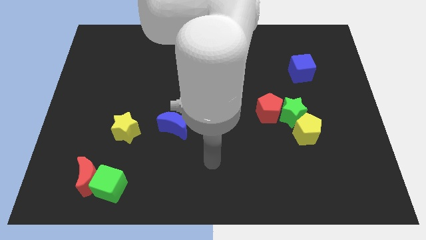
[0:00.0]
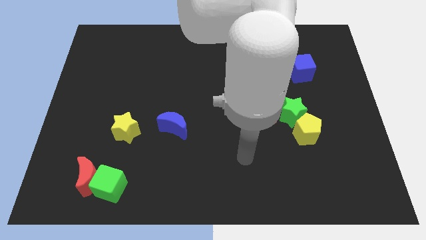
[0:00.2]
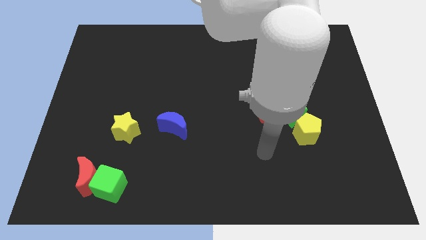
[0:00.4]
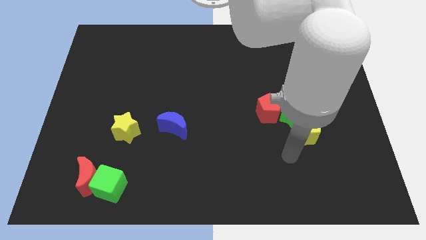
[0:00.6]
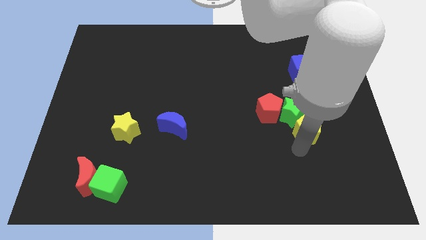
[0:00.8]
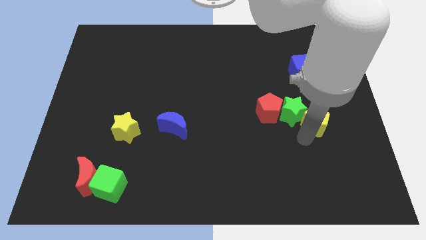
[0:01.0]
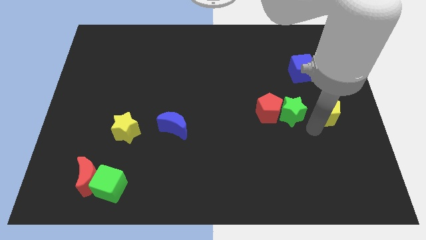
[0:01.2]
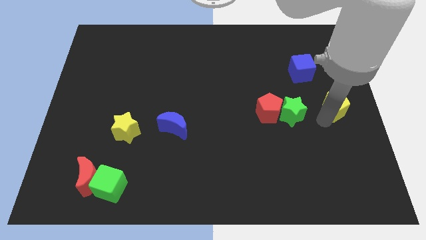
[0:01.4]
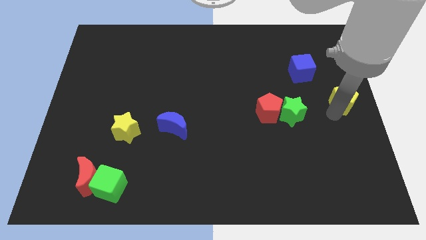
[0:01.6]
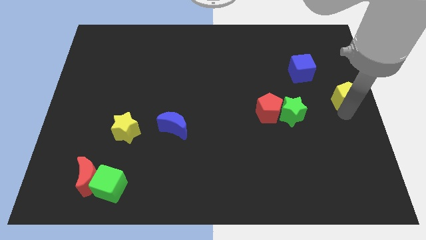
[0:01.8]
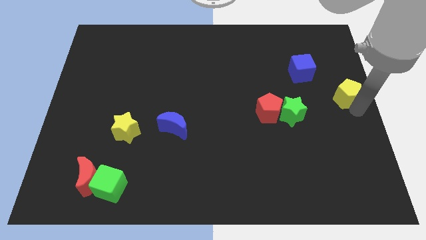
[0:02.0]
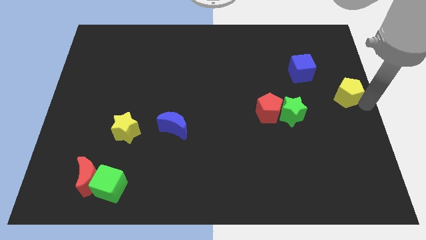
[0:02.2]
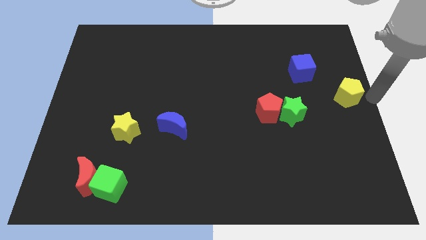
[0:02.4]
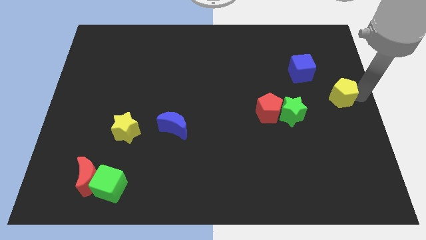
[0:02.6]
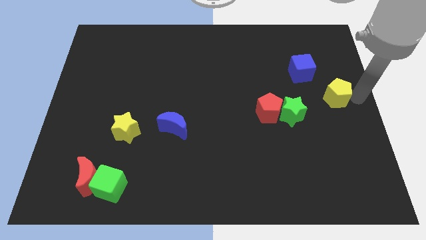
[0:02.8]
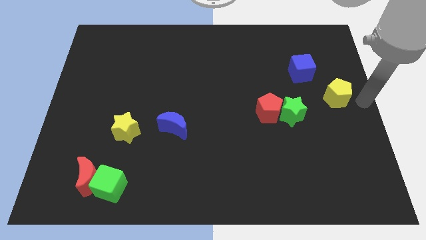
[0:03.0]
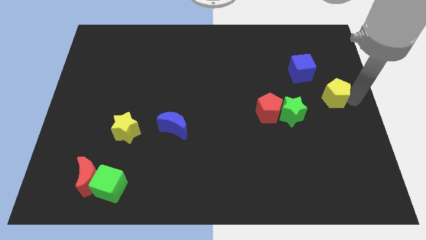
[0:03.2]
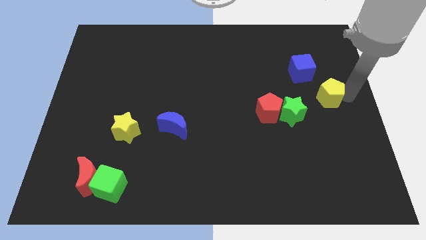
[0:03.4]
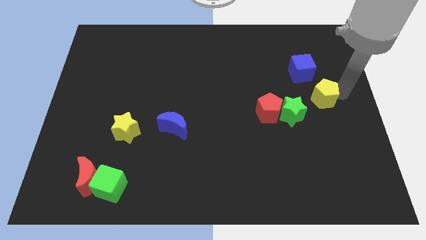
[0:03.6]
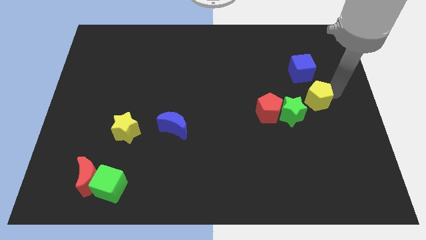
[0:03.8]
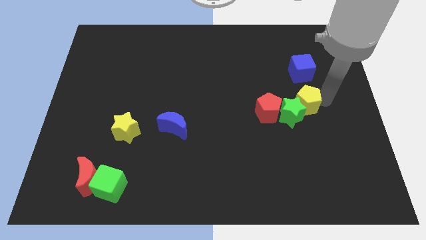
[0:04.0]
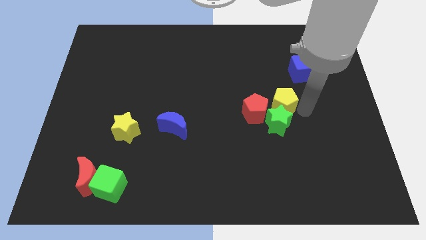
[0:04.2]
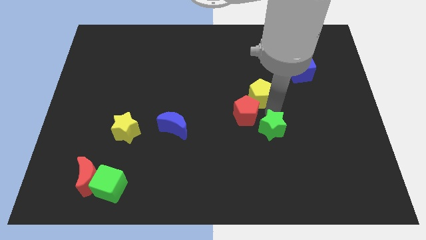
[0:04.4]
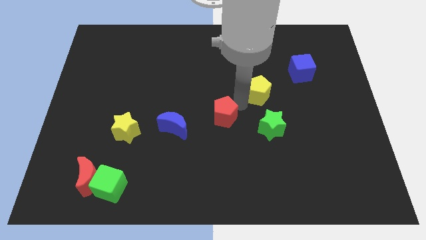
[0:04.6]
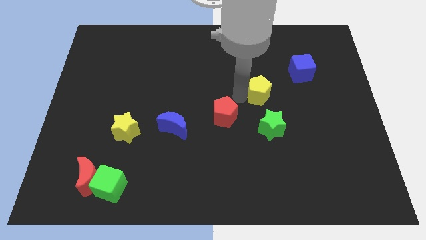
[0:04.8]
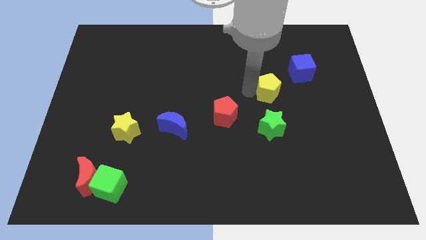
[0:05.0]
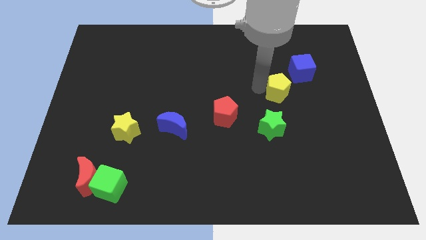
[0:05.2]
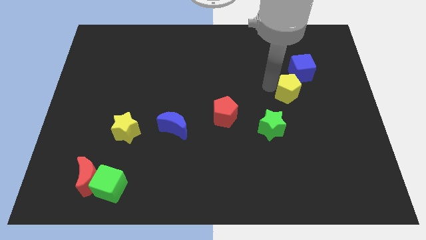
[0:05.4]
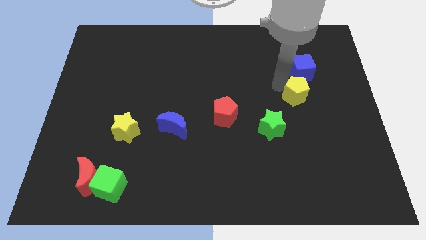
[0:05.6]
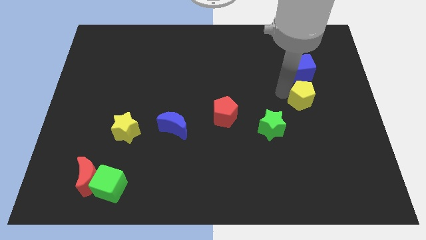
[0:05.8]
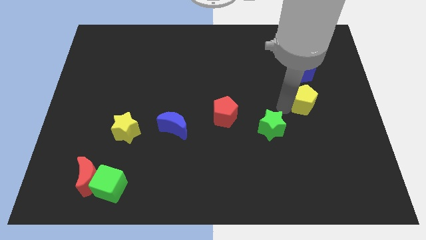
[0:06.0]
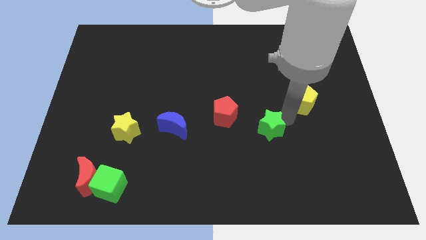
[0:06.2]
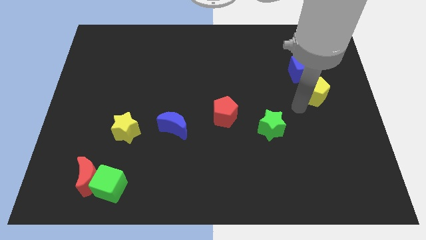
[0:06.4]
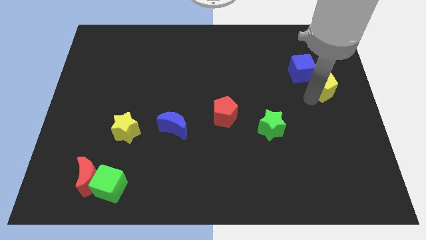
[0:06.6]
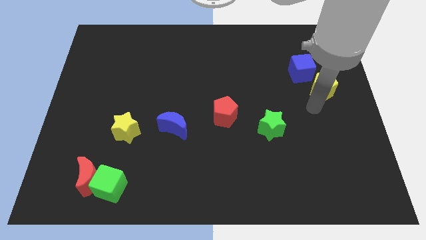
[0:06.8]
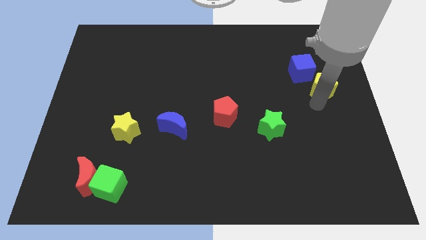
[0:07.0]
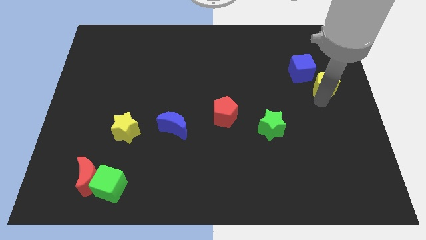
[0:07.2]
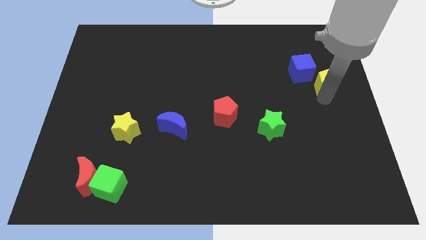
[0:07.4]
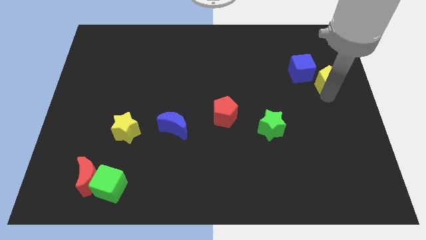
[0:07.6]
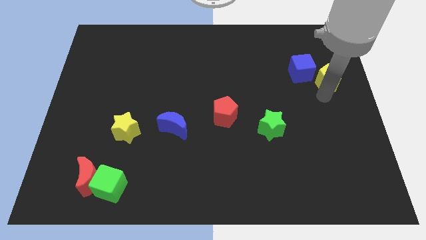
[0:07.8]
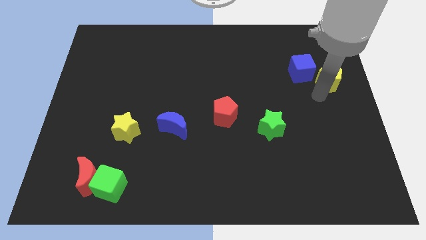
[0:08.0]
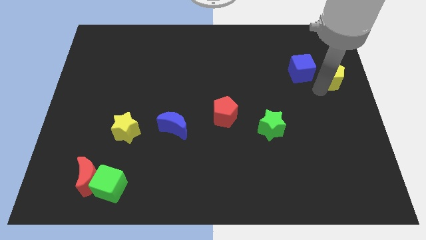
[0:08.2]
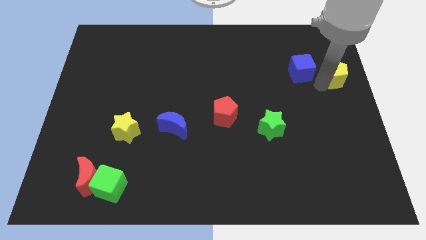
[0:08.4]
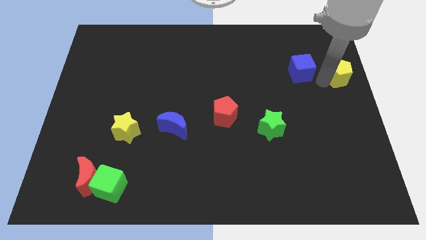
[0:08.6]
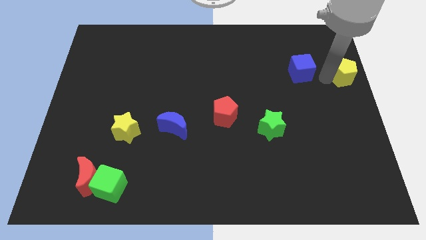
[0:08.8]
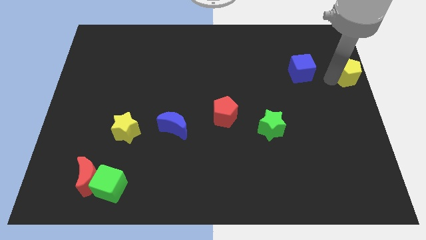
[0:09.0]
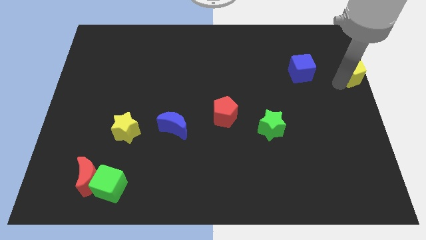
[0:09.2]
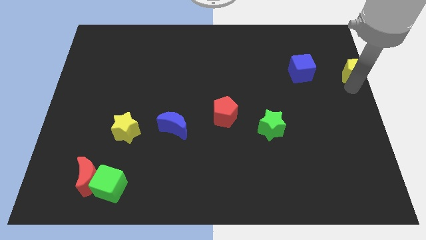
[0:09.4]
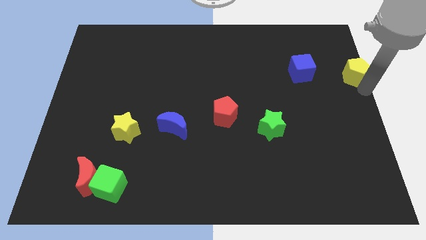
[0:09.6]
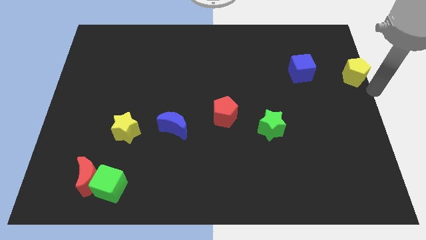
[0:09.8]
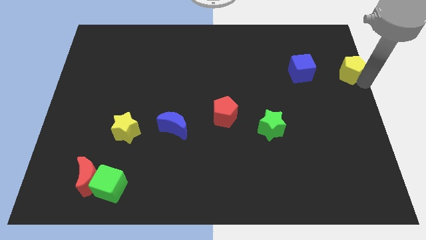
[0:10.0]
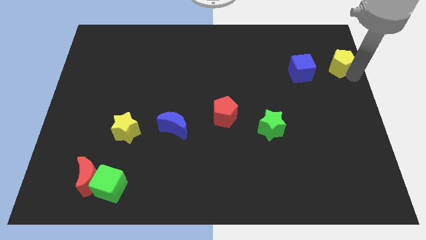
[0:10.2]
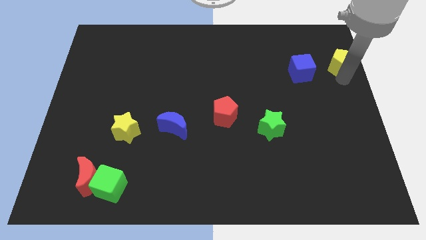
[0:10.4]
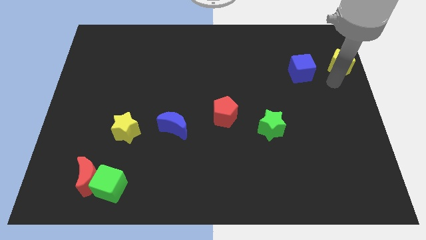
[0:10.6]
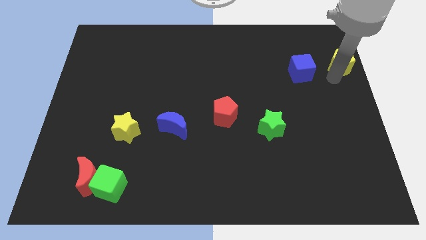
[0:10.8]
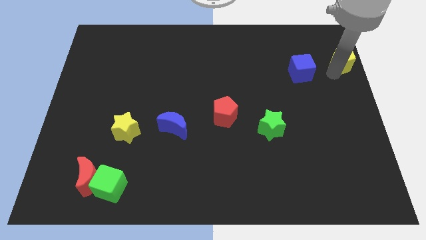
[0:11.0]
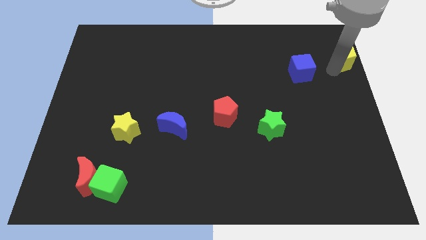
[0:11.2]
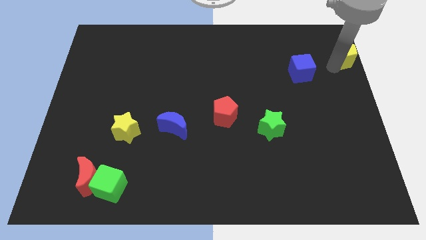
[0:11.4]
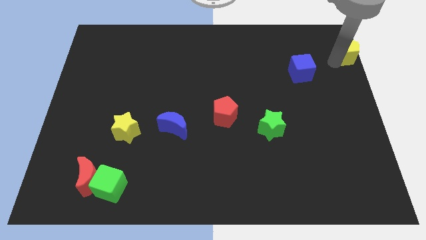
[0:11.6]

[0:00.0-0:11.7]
slide the yellow pentagon to the top right of the board

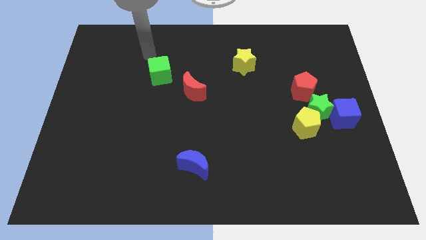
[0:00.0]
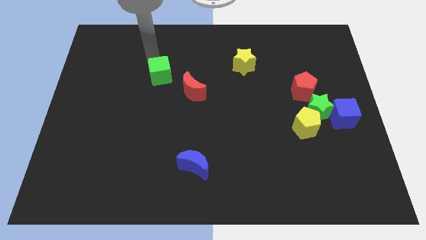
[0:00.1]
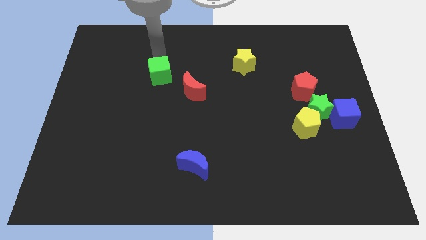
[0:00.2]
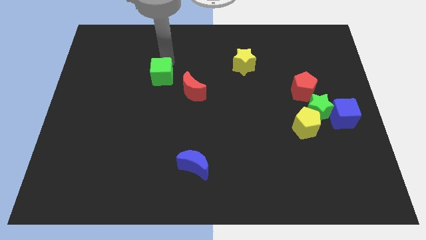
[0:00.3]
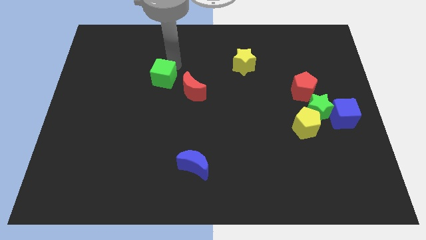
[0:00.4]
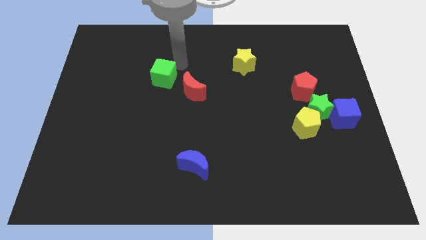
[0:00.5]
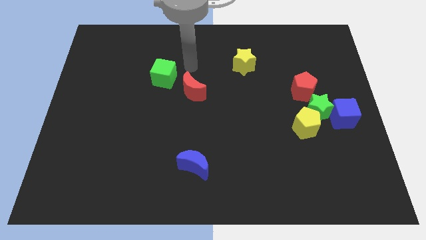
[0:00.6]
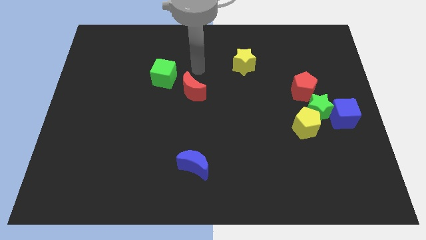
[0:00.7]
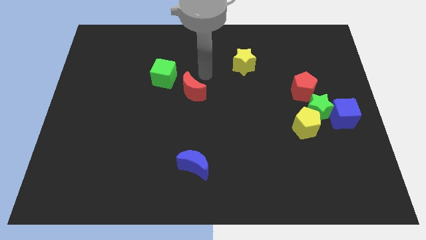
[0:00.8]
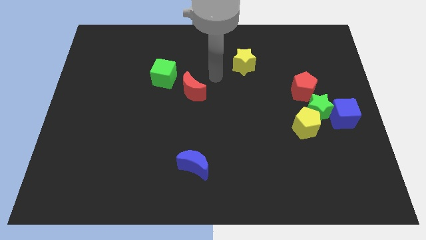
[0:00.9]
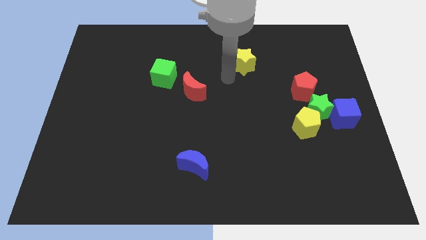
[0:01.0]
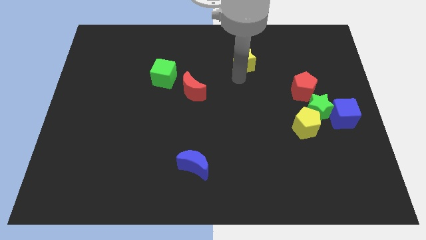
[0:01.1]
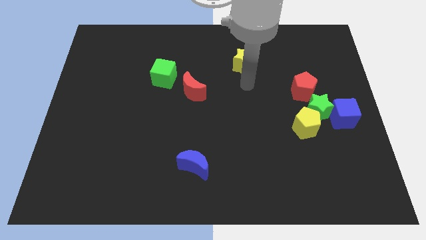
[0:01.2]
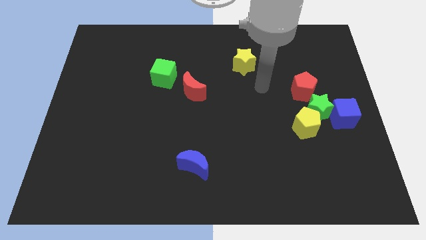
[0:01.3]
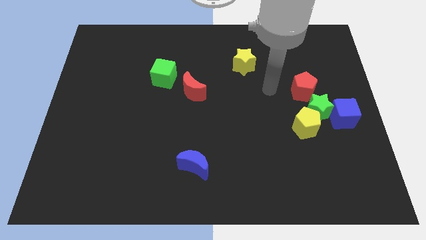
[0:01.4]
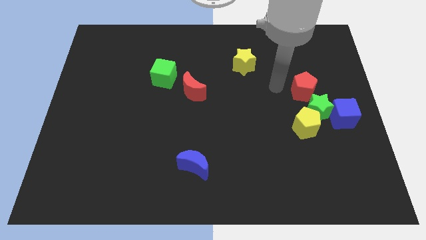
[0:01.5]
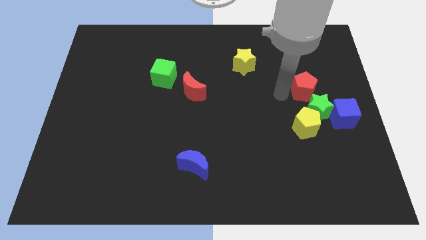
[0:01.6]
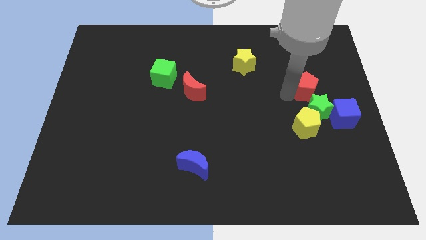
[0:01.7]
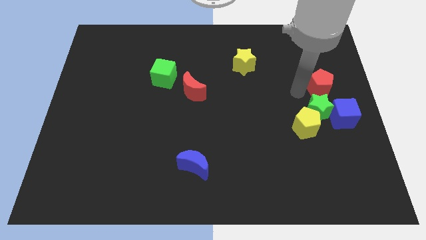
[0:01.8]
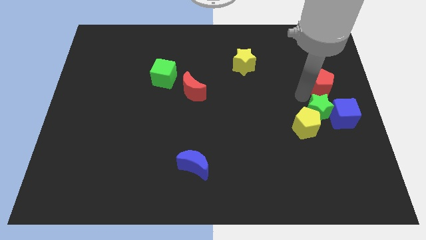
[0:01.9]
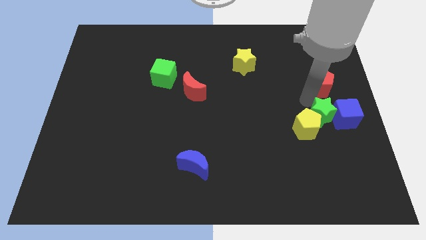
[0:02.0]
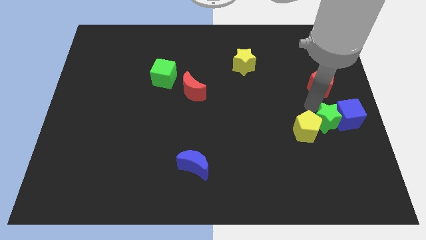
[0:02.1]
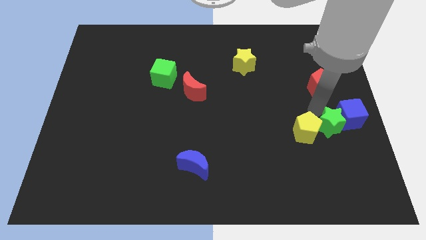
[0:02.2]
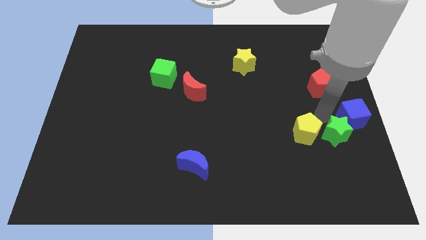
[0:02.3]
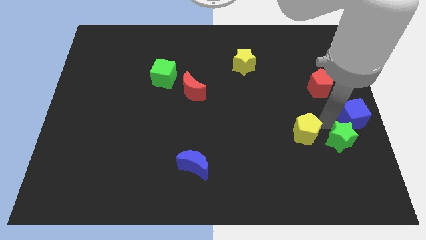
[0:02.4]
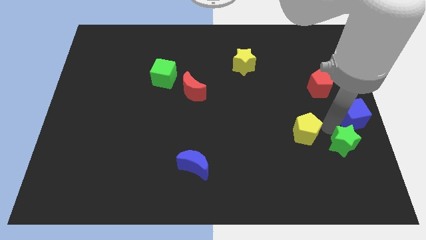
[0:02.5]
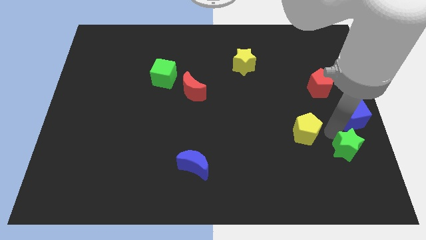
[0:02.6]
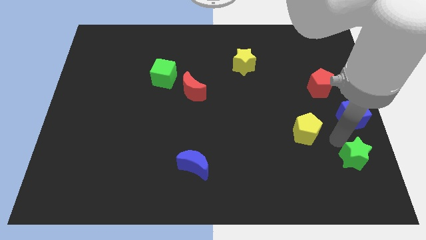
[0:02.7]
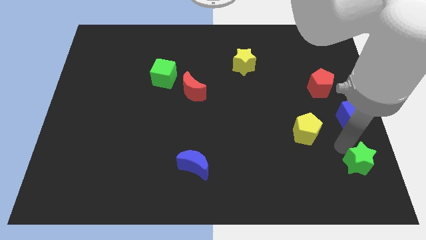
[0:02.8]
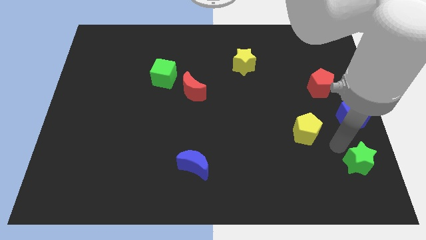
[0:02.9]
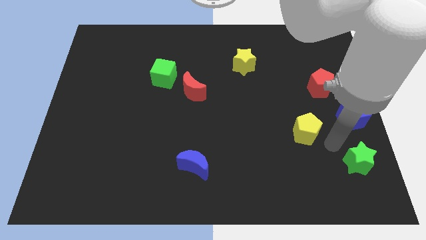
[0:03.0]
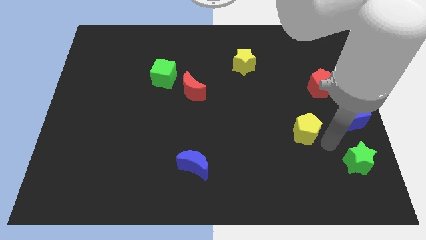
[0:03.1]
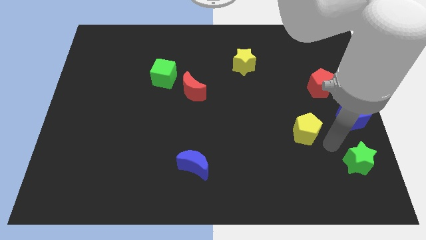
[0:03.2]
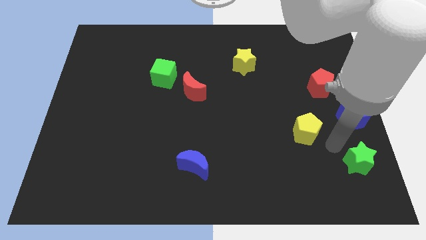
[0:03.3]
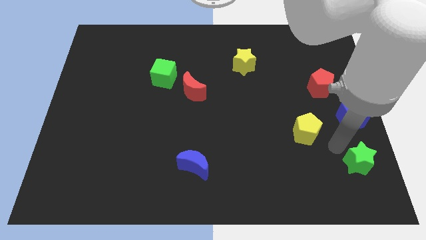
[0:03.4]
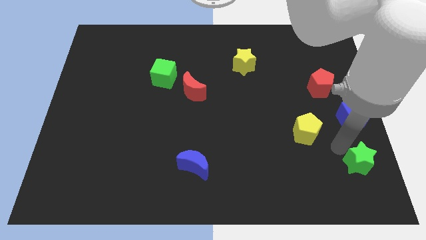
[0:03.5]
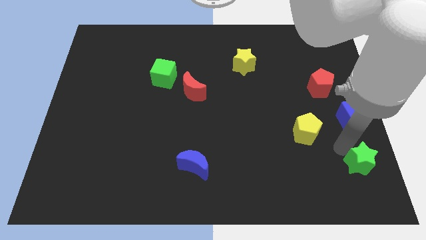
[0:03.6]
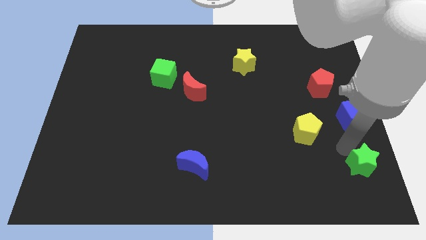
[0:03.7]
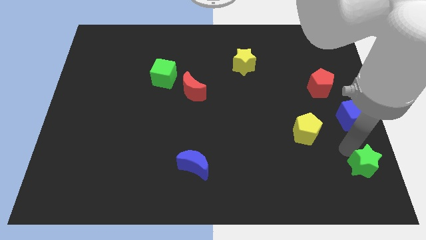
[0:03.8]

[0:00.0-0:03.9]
slide the green star to the bottom right
